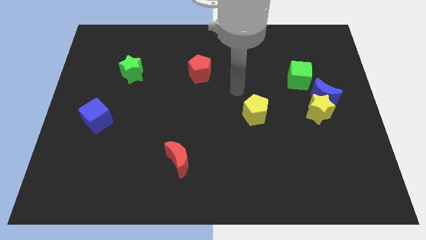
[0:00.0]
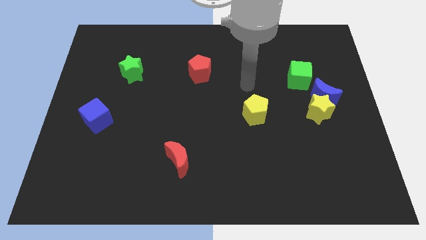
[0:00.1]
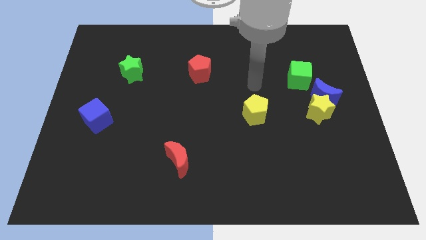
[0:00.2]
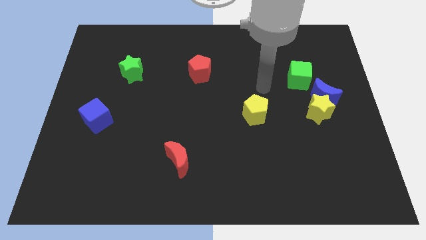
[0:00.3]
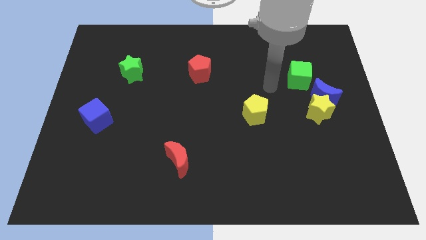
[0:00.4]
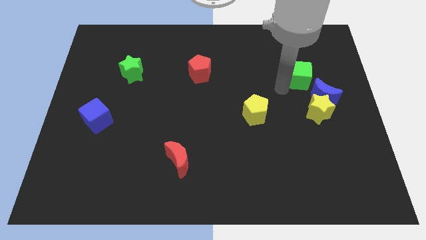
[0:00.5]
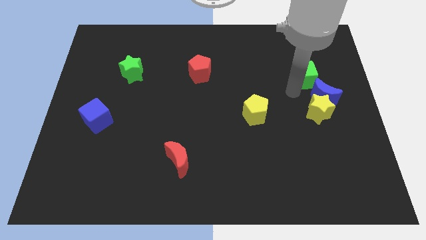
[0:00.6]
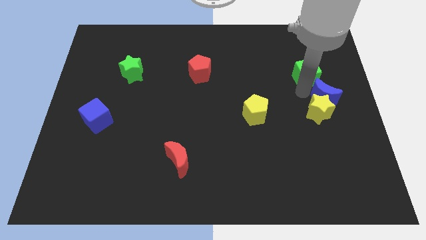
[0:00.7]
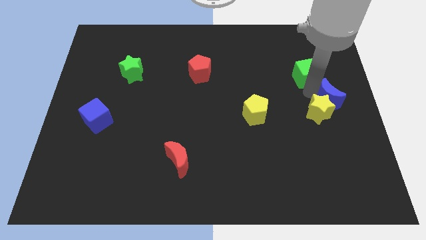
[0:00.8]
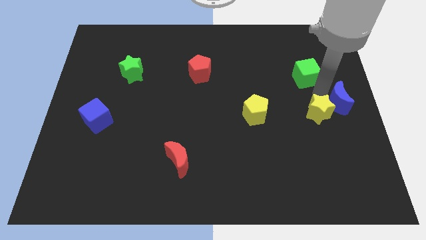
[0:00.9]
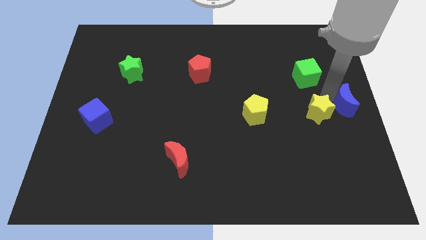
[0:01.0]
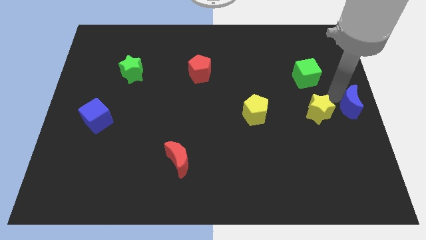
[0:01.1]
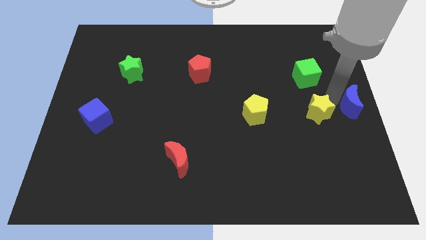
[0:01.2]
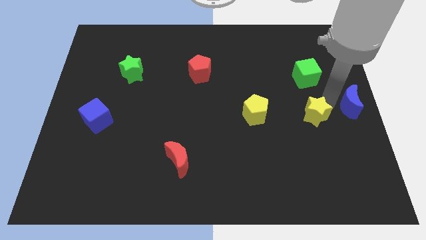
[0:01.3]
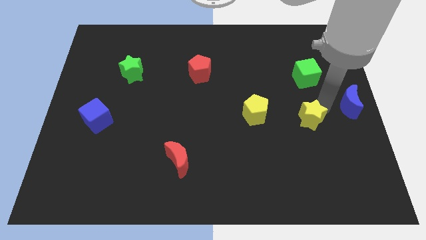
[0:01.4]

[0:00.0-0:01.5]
pull the yellow star apart from the blue moon

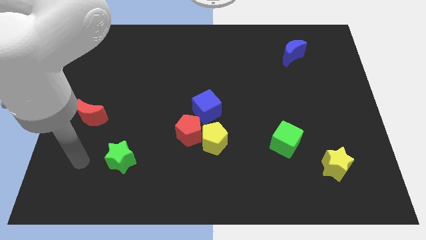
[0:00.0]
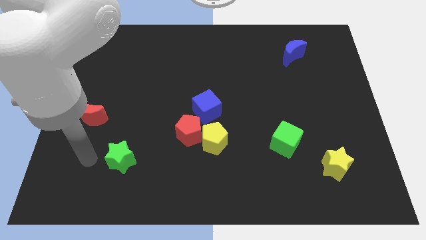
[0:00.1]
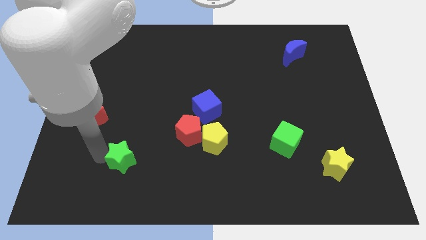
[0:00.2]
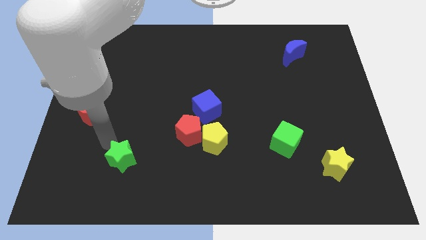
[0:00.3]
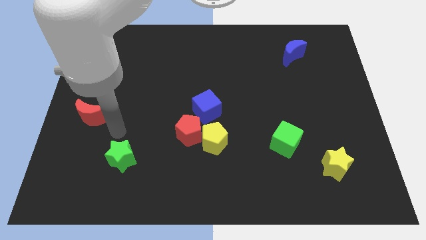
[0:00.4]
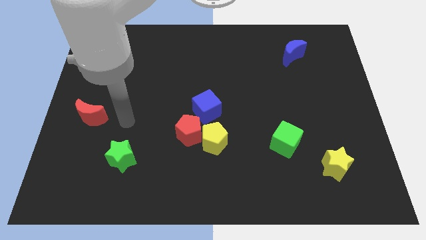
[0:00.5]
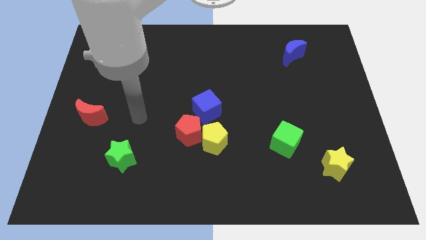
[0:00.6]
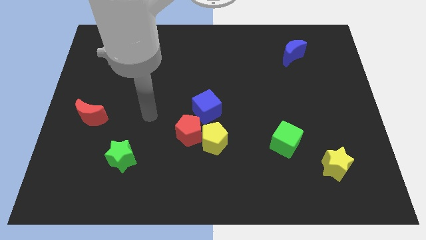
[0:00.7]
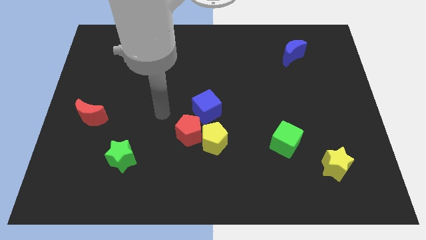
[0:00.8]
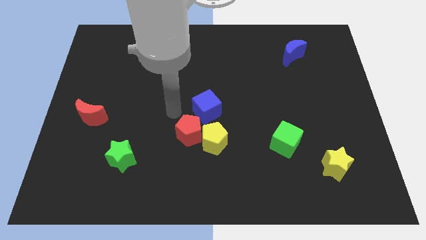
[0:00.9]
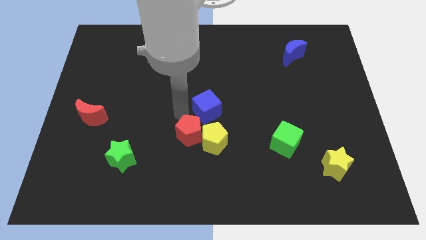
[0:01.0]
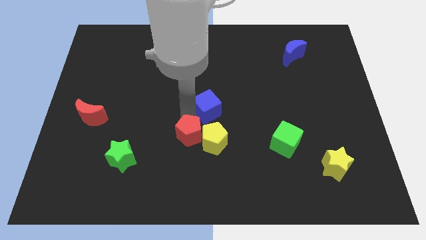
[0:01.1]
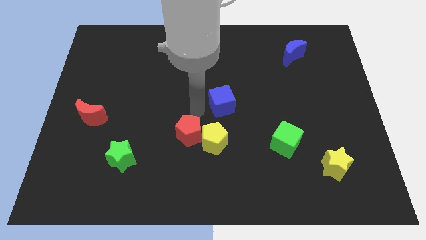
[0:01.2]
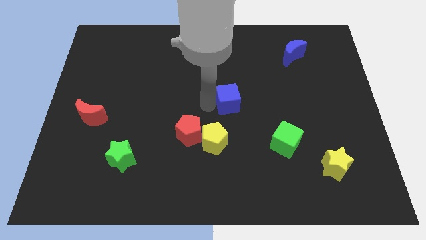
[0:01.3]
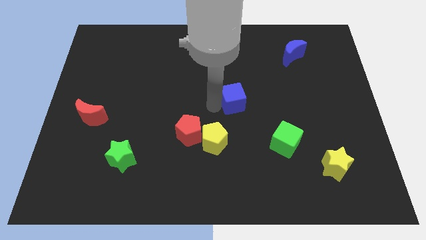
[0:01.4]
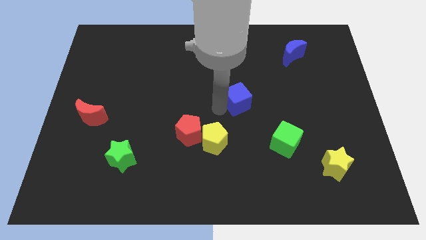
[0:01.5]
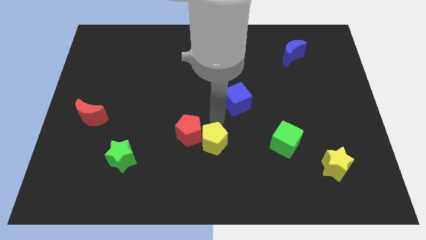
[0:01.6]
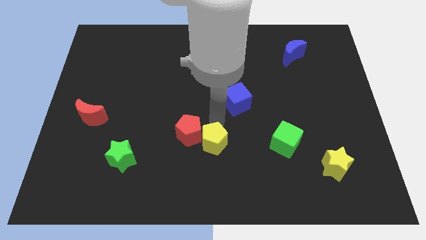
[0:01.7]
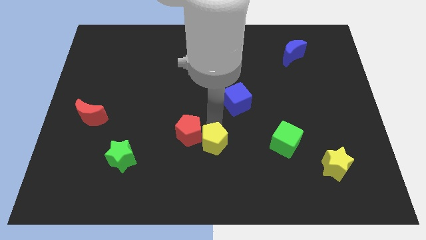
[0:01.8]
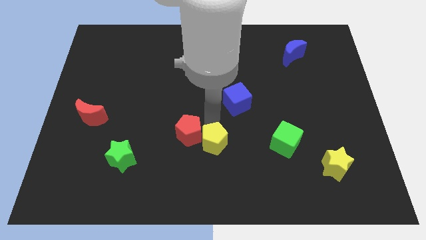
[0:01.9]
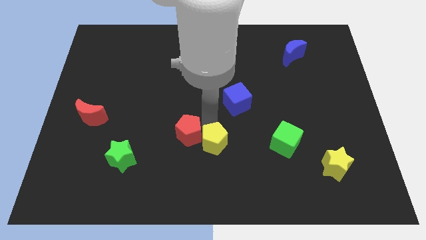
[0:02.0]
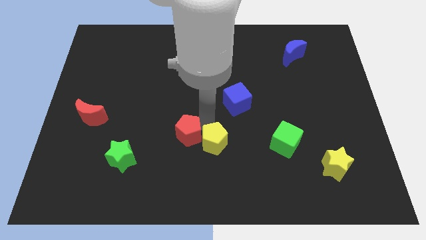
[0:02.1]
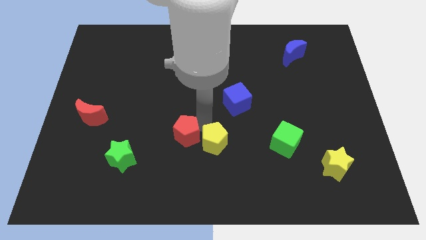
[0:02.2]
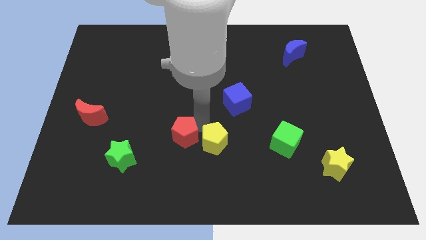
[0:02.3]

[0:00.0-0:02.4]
pull the red pentagon apart from the yellow pentagon and blue cube

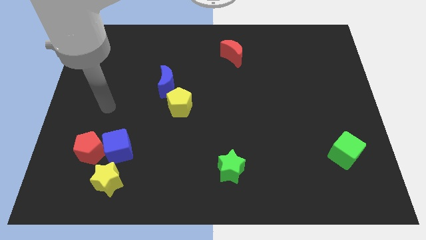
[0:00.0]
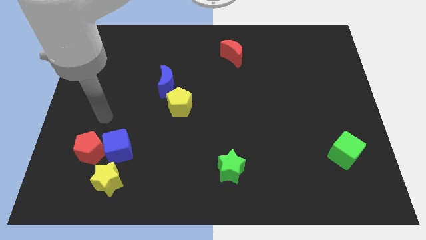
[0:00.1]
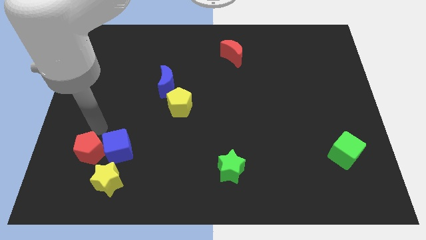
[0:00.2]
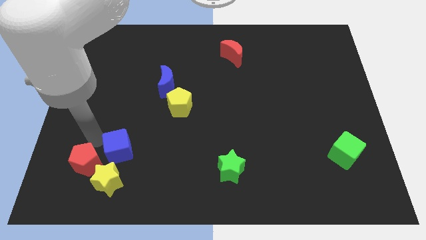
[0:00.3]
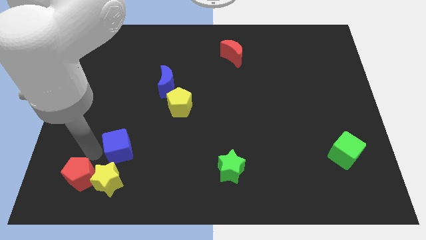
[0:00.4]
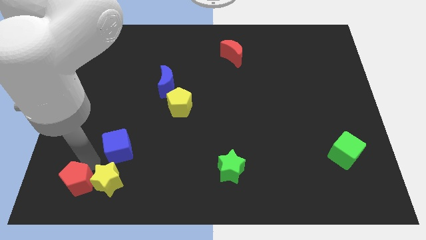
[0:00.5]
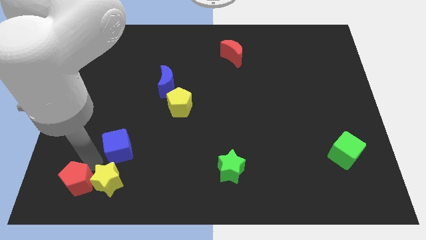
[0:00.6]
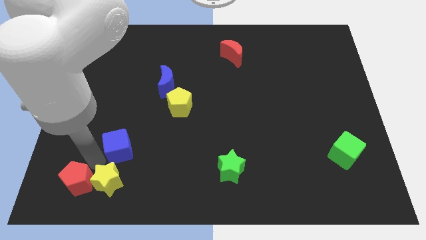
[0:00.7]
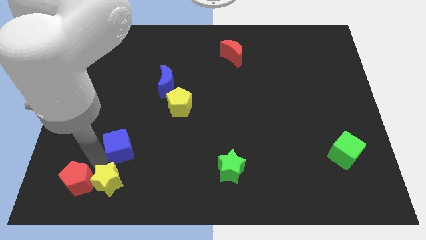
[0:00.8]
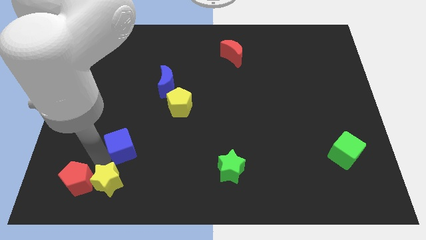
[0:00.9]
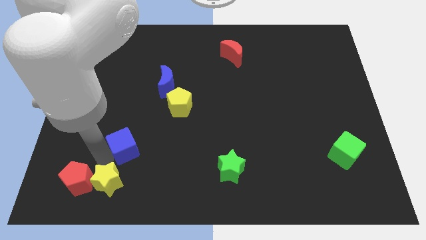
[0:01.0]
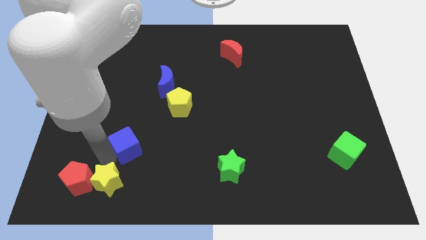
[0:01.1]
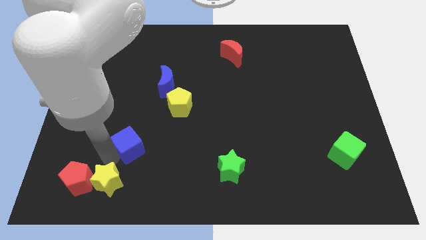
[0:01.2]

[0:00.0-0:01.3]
move the blue cube away from the red pentagon and yellow star

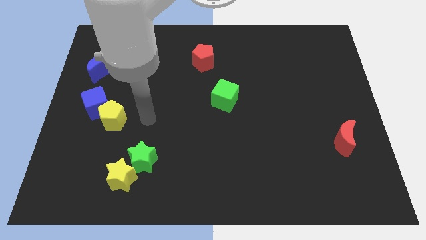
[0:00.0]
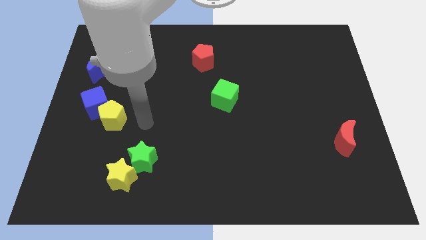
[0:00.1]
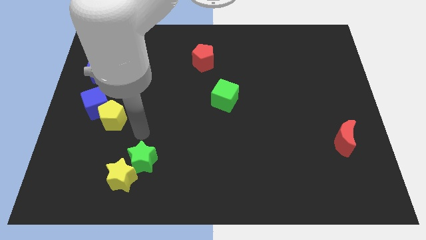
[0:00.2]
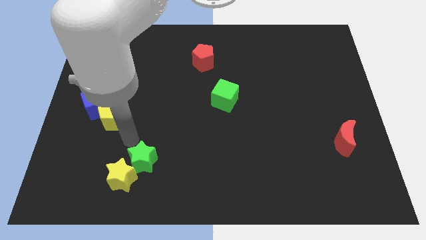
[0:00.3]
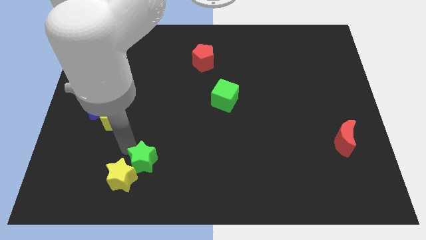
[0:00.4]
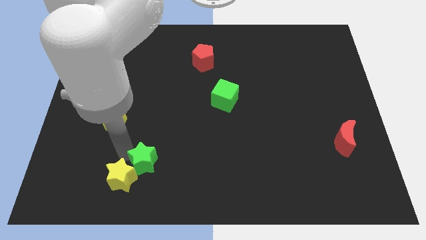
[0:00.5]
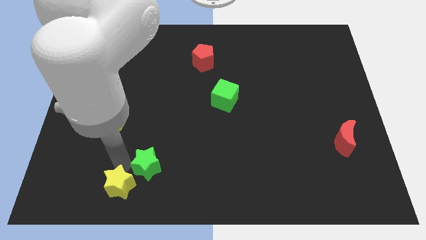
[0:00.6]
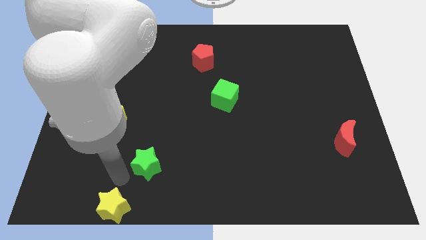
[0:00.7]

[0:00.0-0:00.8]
pull the green star apart from the yellow star

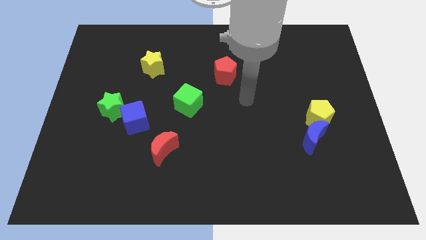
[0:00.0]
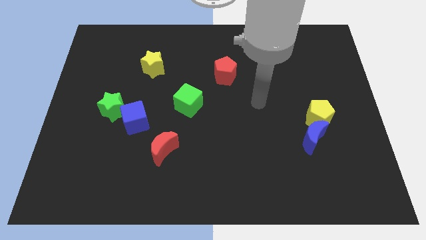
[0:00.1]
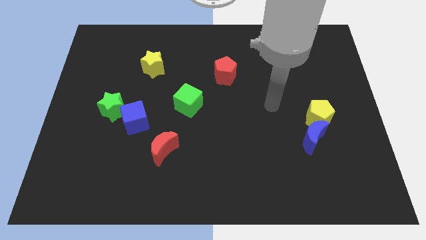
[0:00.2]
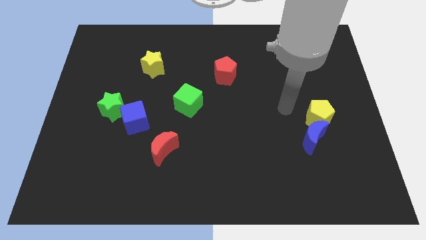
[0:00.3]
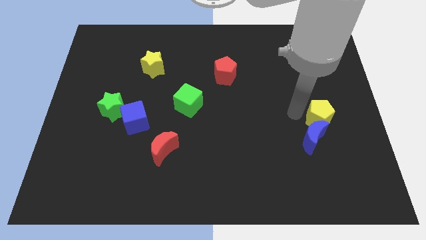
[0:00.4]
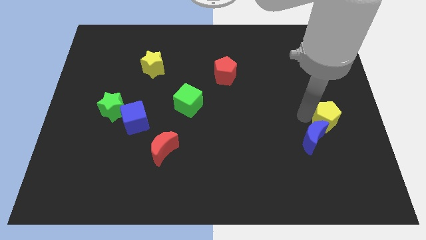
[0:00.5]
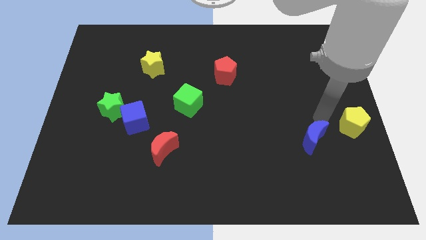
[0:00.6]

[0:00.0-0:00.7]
separate the blue moon from the yellow pentagon

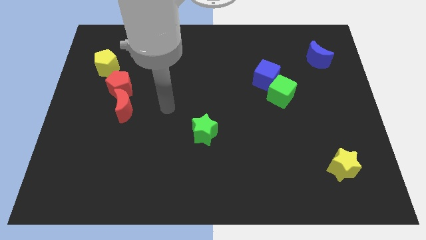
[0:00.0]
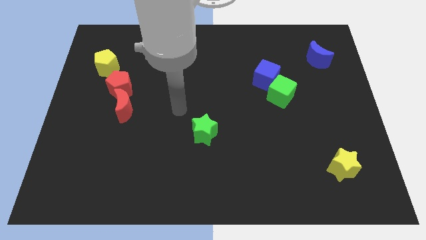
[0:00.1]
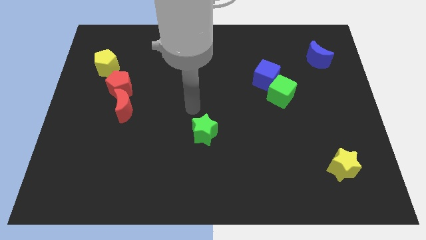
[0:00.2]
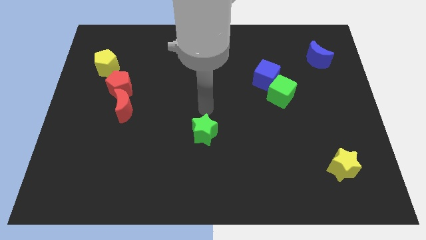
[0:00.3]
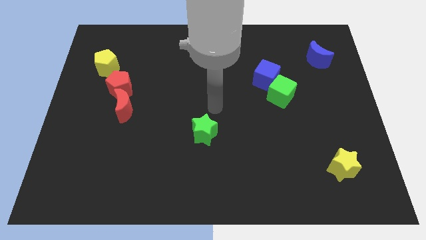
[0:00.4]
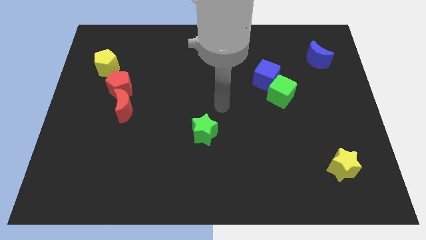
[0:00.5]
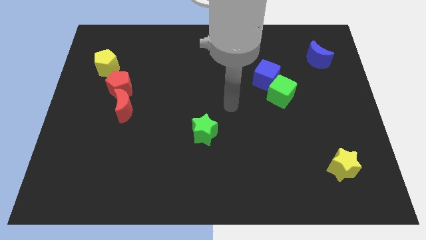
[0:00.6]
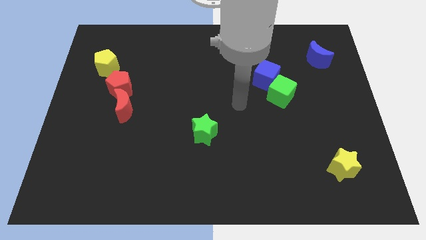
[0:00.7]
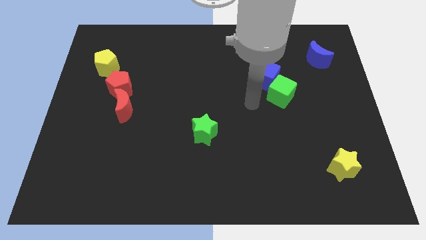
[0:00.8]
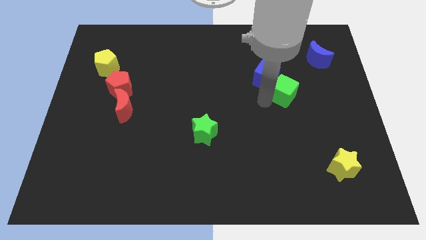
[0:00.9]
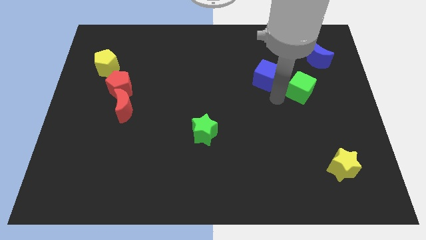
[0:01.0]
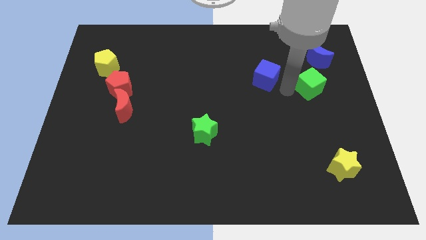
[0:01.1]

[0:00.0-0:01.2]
separate the blue cube from the green cube

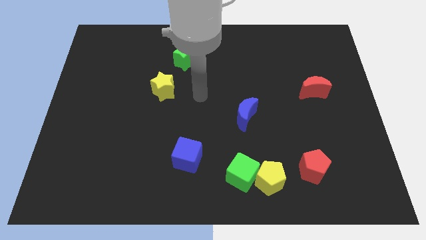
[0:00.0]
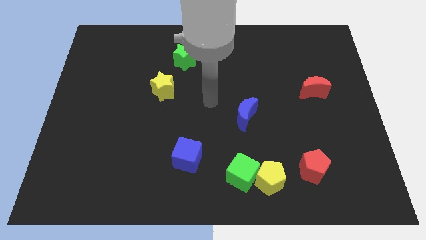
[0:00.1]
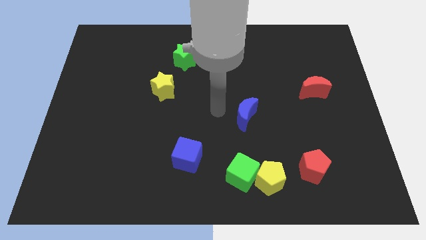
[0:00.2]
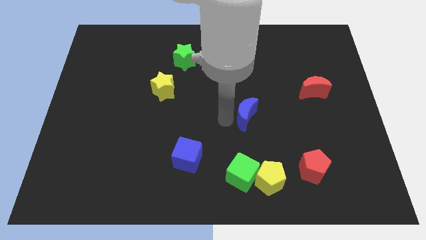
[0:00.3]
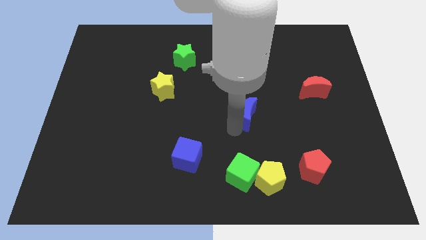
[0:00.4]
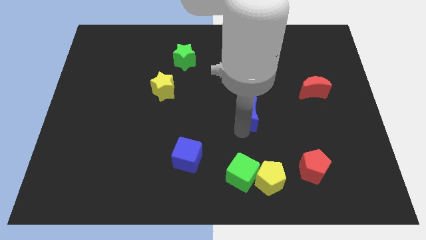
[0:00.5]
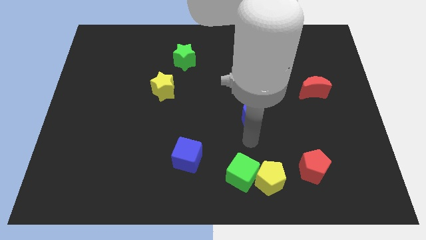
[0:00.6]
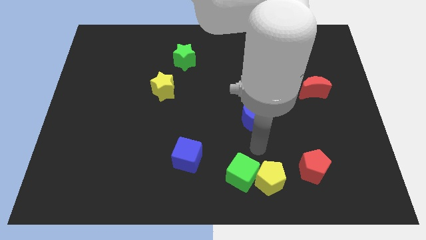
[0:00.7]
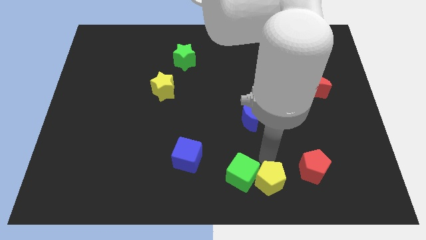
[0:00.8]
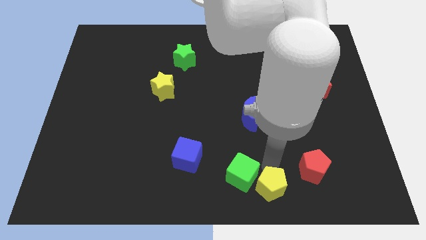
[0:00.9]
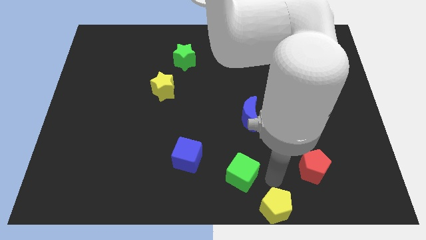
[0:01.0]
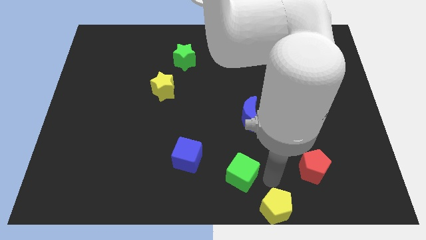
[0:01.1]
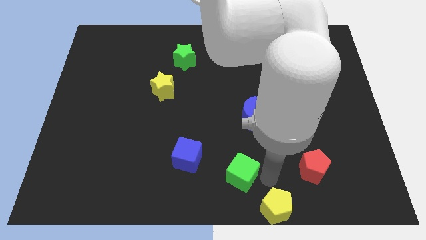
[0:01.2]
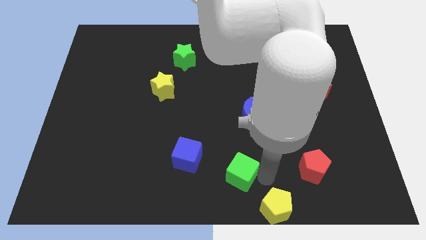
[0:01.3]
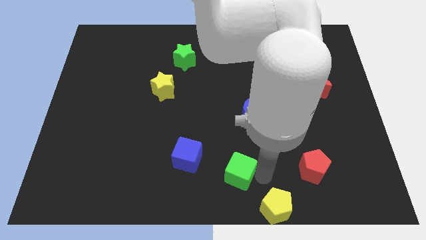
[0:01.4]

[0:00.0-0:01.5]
pull the green cube apart from the yellow pentagon
